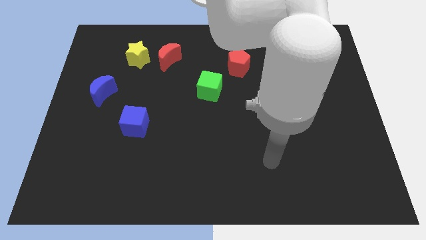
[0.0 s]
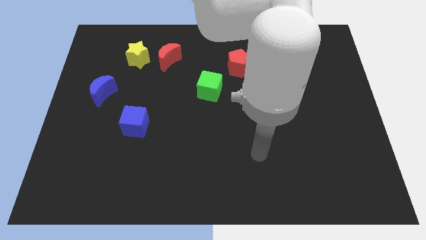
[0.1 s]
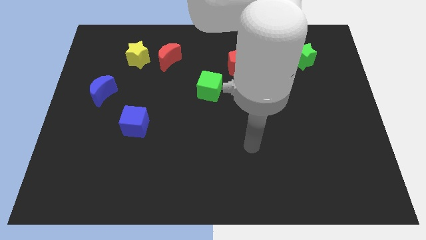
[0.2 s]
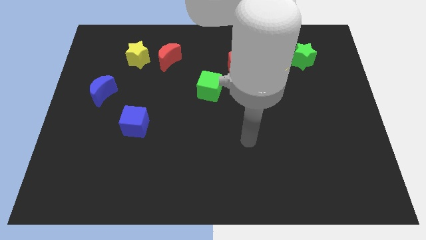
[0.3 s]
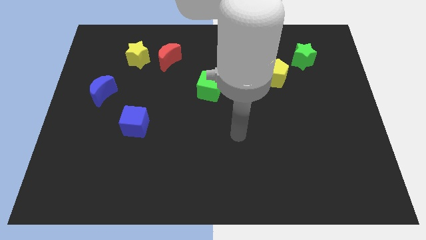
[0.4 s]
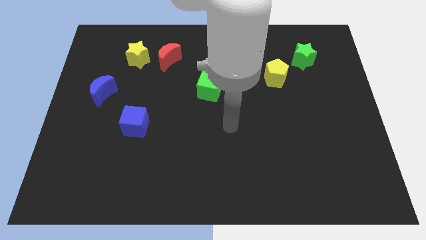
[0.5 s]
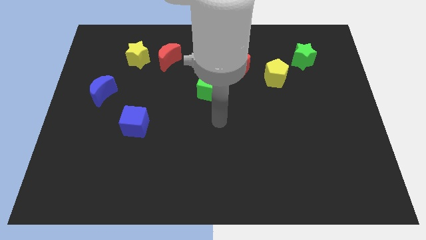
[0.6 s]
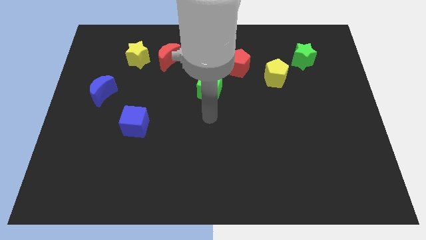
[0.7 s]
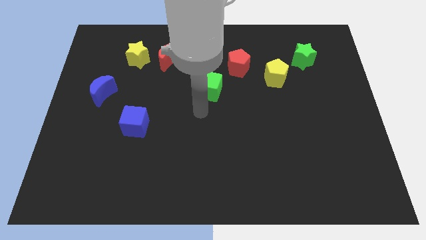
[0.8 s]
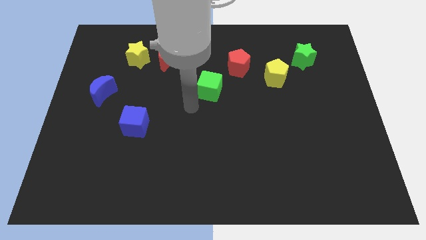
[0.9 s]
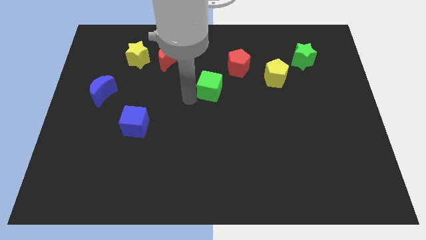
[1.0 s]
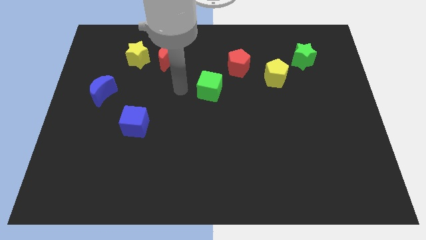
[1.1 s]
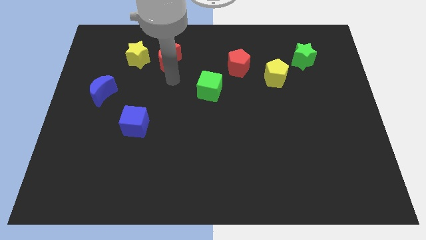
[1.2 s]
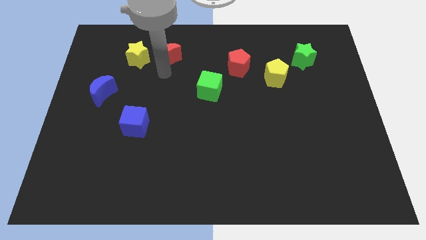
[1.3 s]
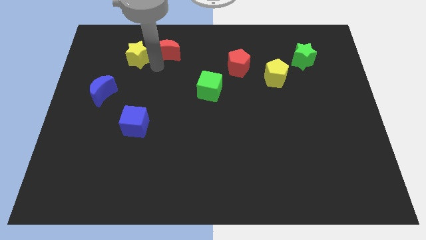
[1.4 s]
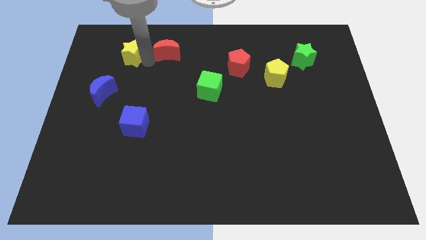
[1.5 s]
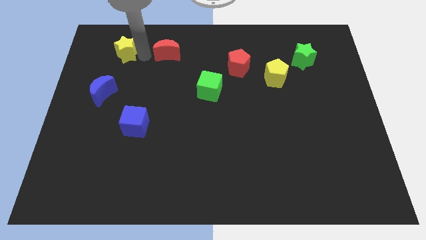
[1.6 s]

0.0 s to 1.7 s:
separate the red moon from the yellow star

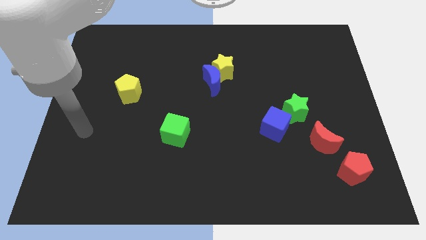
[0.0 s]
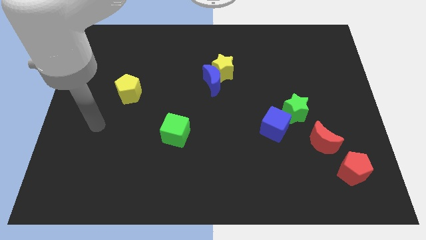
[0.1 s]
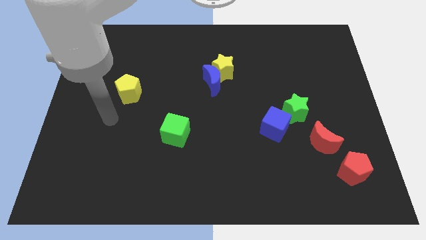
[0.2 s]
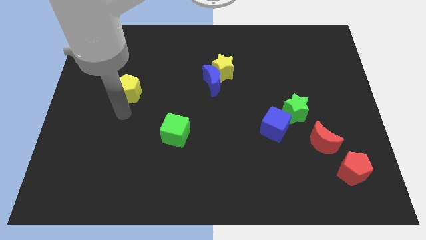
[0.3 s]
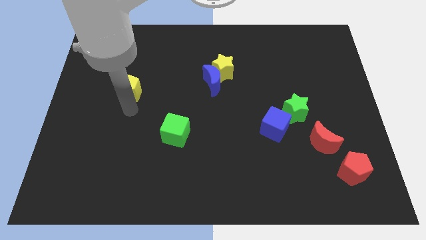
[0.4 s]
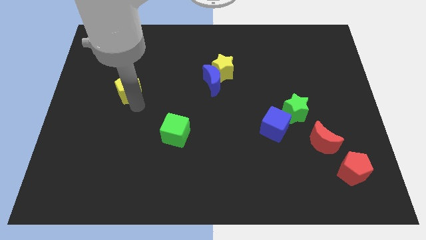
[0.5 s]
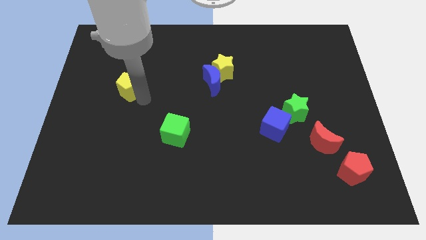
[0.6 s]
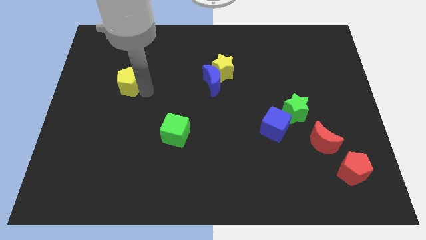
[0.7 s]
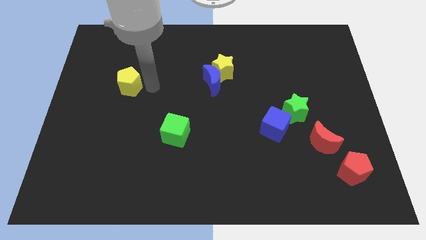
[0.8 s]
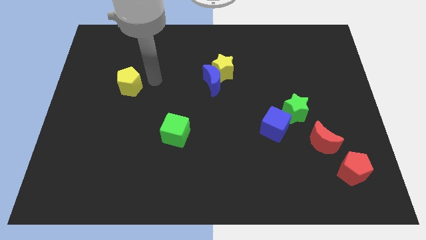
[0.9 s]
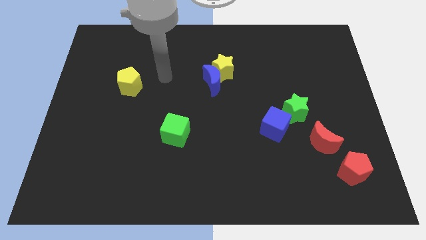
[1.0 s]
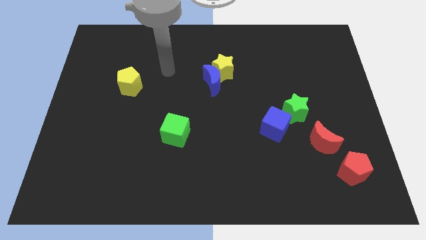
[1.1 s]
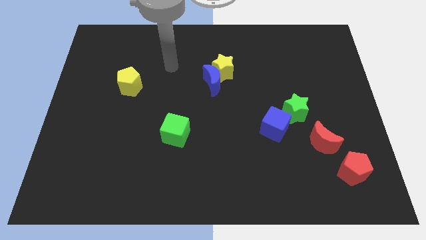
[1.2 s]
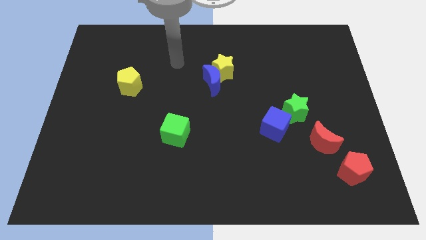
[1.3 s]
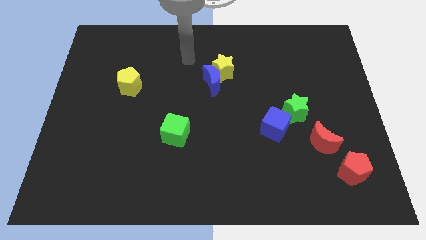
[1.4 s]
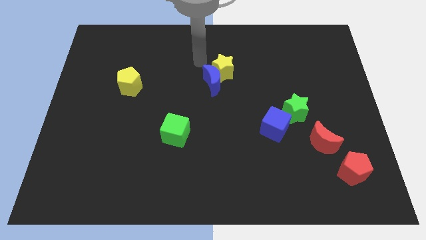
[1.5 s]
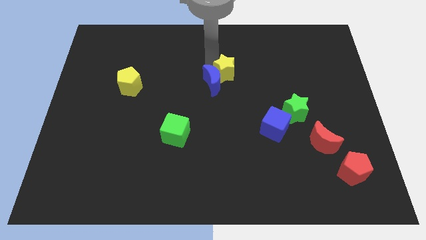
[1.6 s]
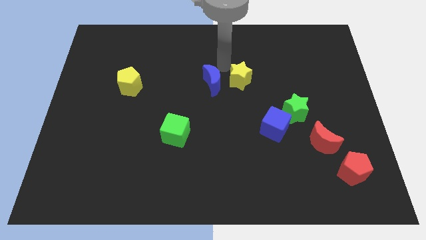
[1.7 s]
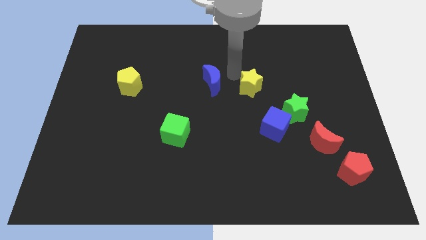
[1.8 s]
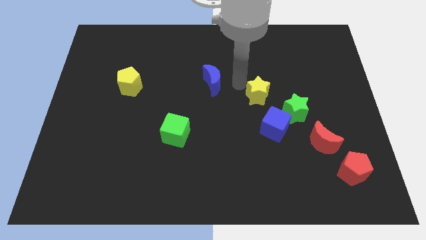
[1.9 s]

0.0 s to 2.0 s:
separate the blue moon from the yellow star

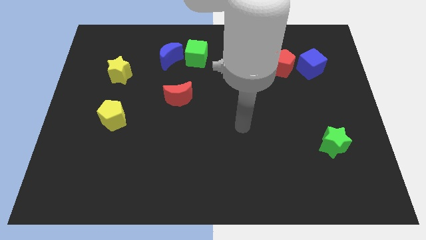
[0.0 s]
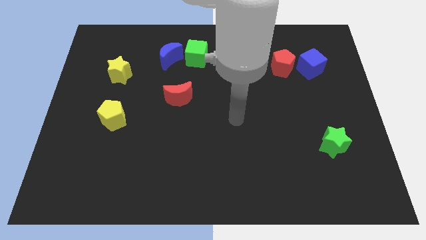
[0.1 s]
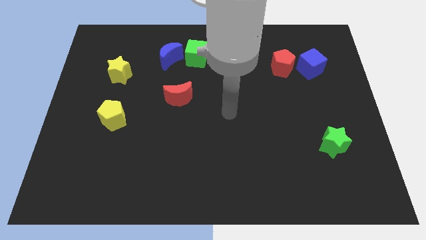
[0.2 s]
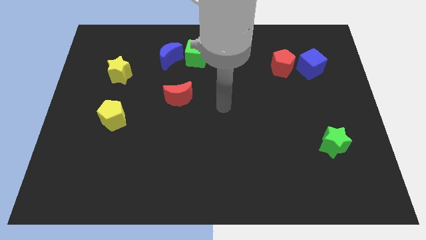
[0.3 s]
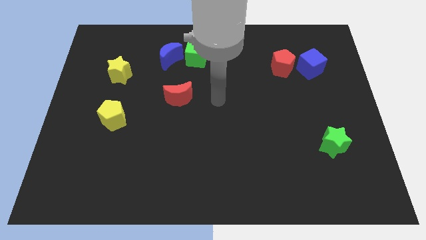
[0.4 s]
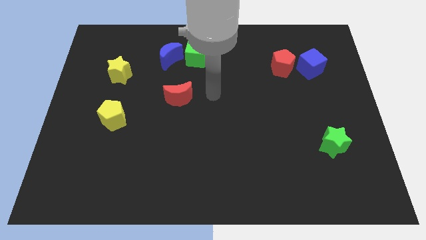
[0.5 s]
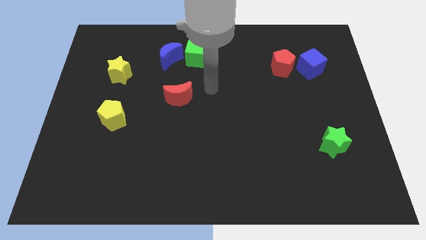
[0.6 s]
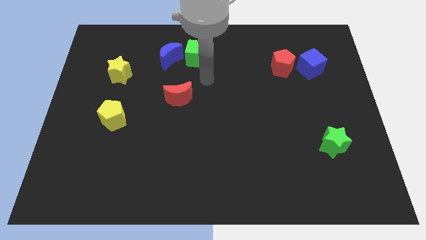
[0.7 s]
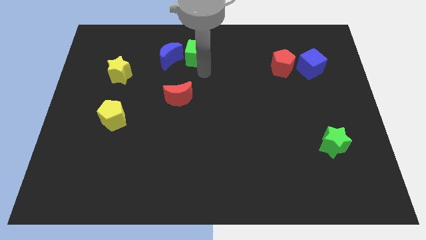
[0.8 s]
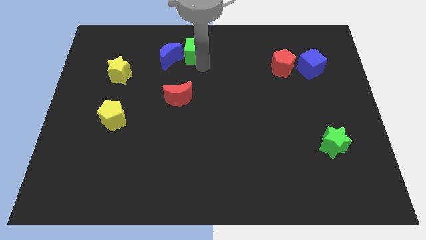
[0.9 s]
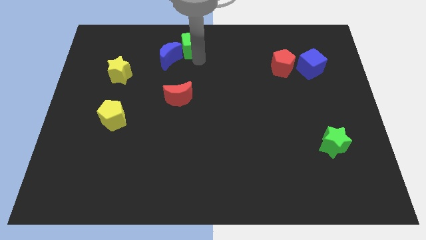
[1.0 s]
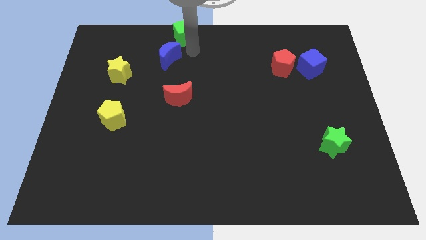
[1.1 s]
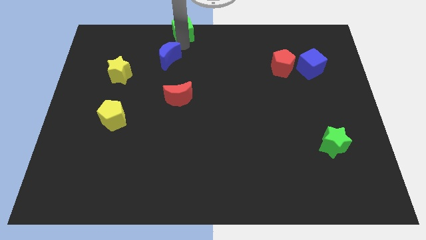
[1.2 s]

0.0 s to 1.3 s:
pull the blue moon apart from the green cube

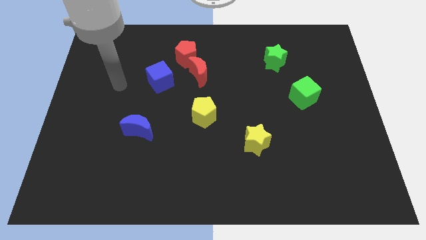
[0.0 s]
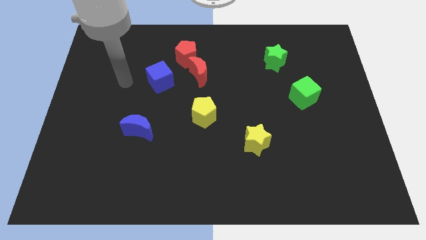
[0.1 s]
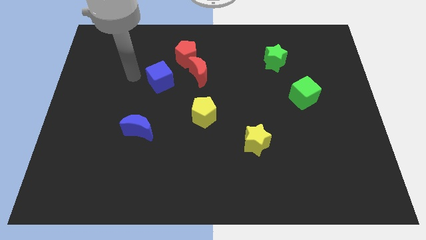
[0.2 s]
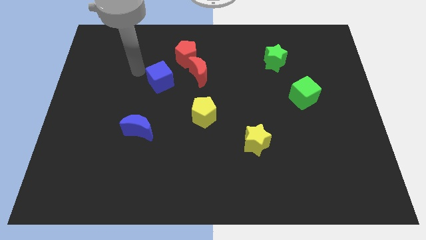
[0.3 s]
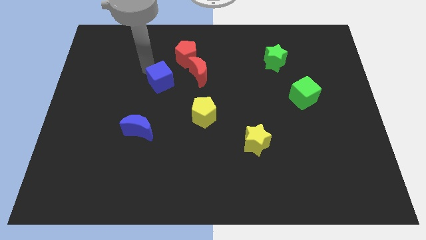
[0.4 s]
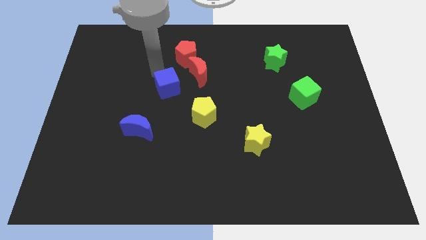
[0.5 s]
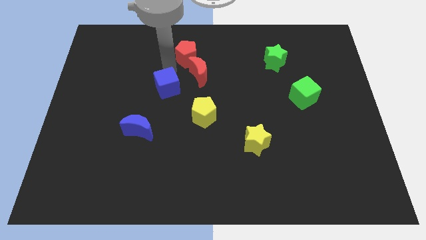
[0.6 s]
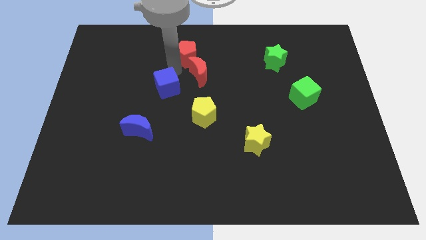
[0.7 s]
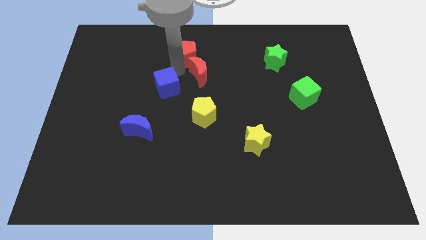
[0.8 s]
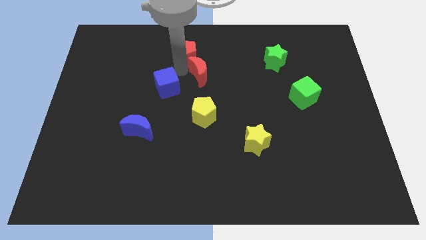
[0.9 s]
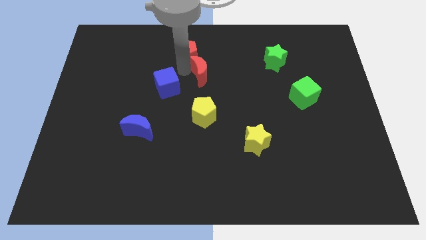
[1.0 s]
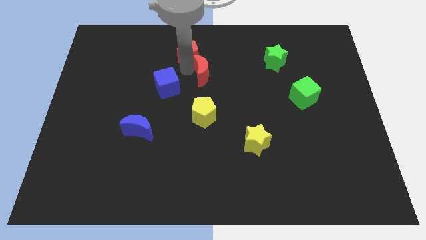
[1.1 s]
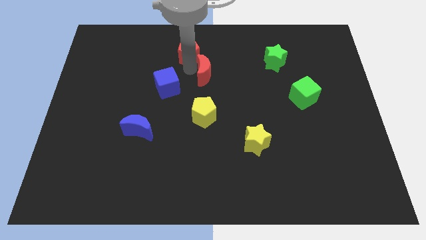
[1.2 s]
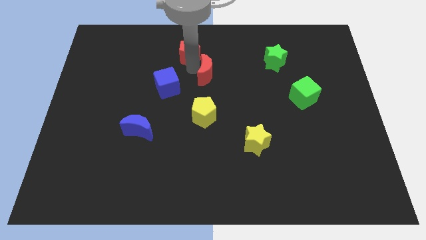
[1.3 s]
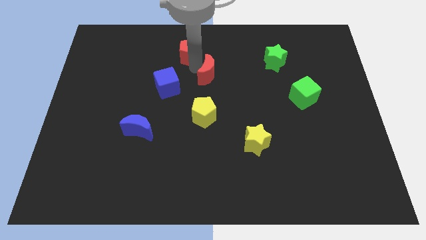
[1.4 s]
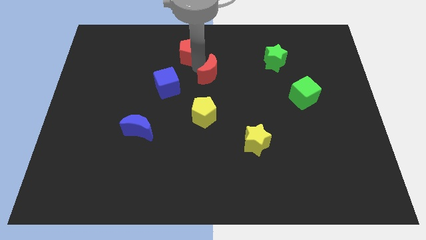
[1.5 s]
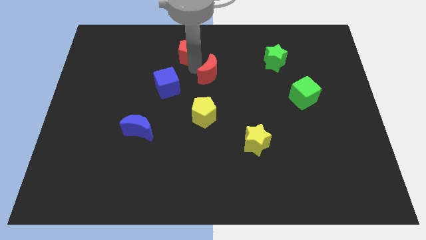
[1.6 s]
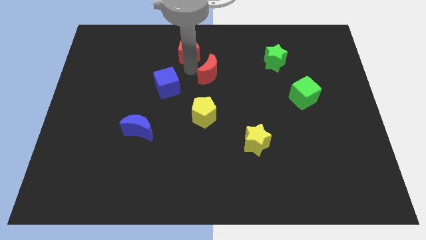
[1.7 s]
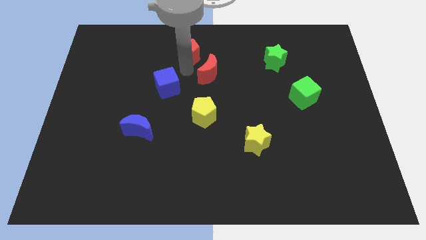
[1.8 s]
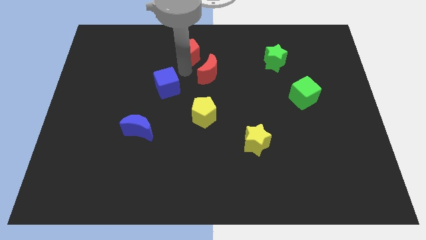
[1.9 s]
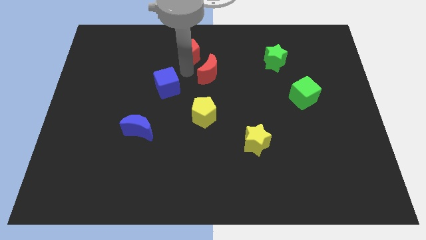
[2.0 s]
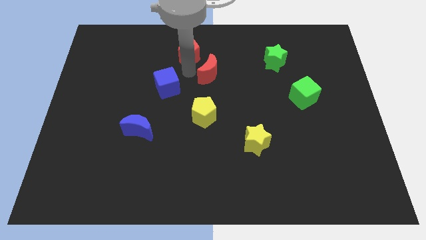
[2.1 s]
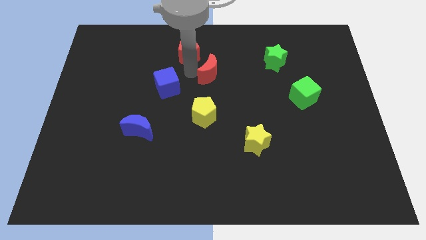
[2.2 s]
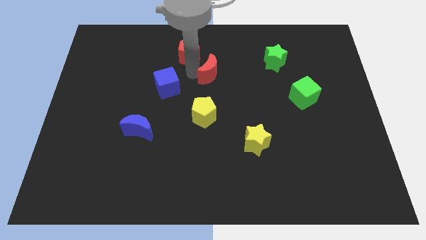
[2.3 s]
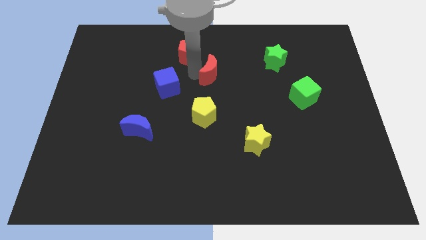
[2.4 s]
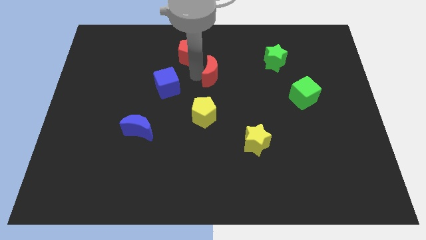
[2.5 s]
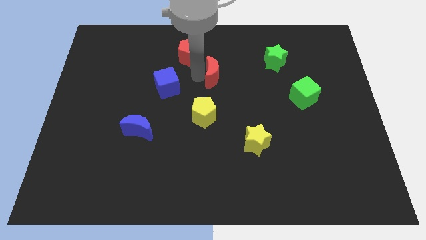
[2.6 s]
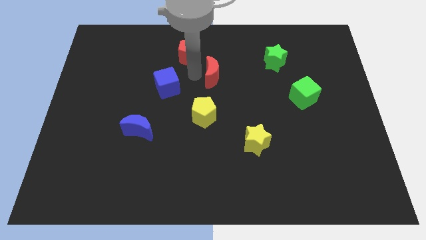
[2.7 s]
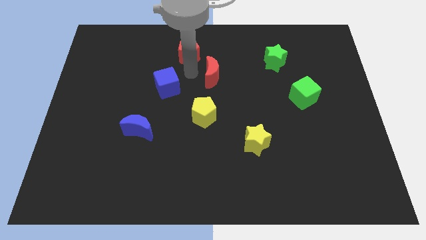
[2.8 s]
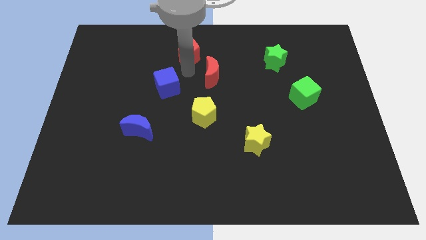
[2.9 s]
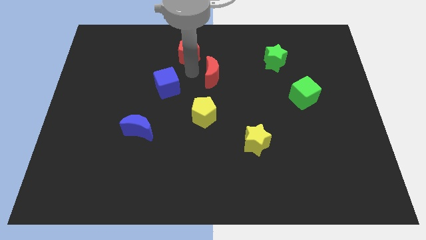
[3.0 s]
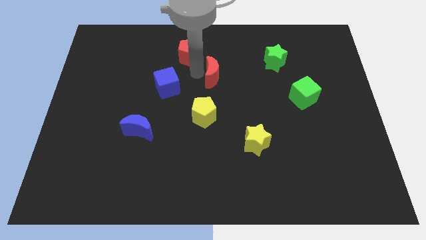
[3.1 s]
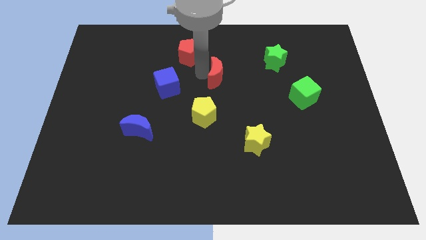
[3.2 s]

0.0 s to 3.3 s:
separate the red moon from the red pentagon and blue cube

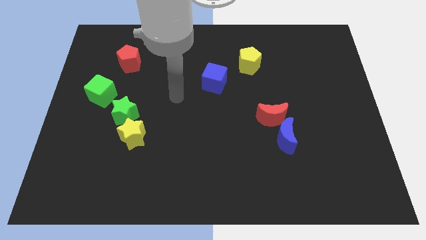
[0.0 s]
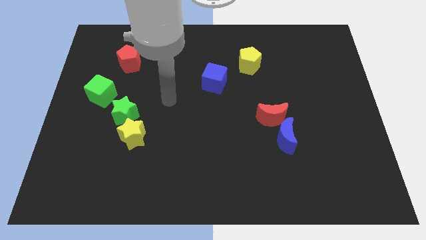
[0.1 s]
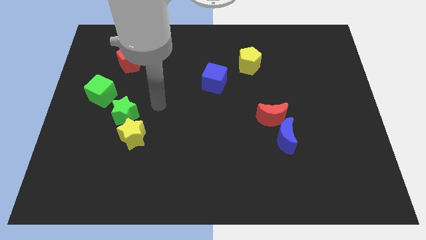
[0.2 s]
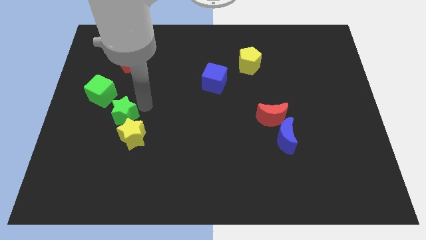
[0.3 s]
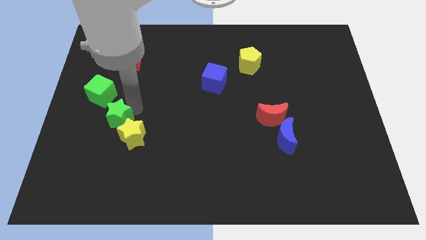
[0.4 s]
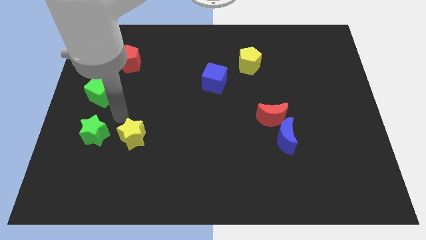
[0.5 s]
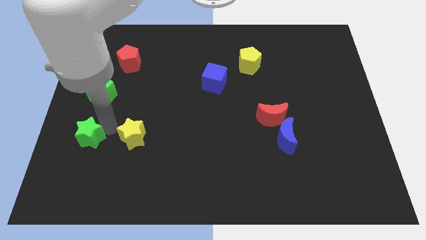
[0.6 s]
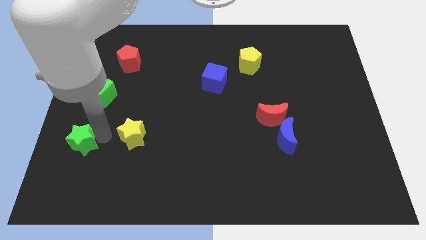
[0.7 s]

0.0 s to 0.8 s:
pull the yellow star apart from the green star

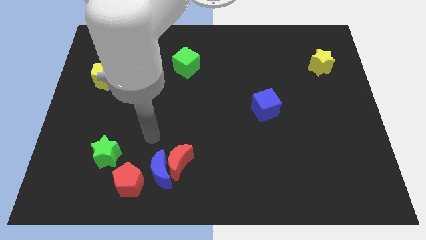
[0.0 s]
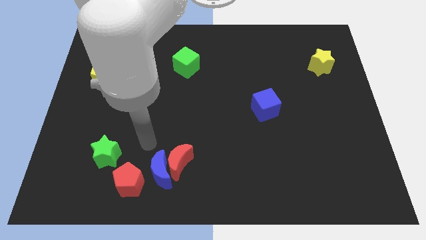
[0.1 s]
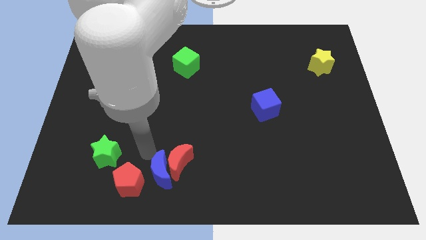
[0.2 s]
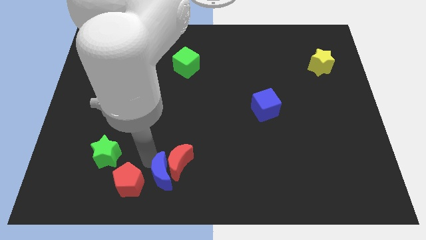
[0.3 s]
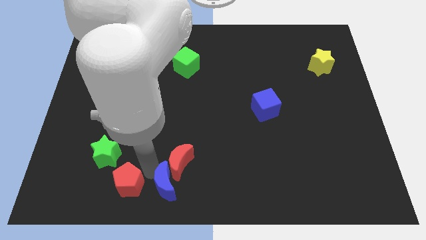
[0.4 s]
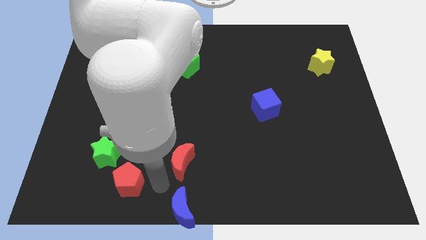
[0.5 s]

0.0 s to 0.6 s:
pull the red moon apart from the blue moon
